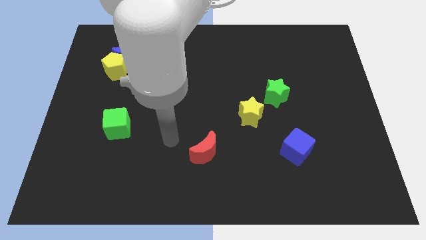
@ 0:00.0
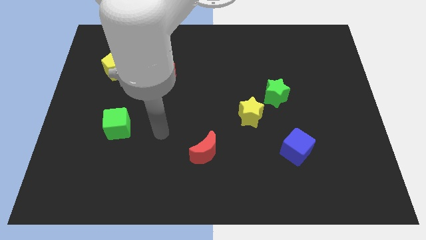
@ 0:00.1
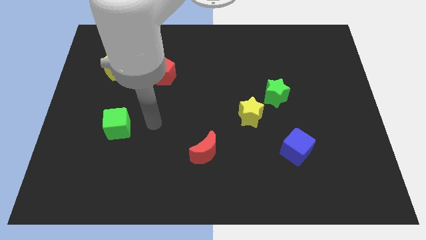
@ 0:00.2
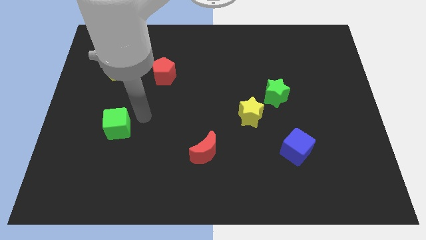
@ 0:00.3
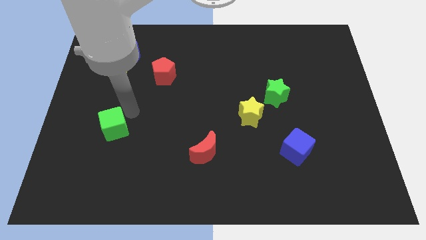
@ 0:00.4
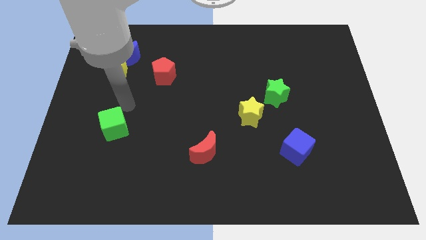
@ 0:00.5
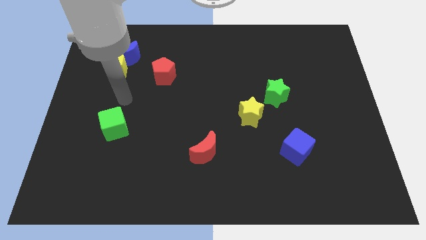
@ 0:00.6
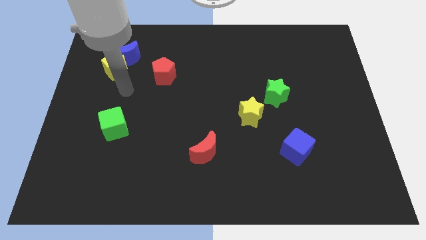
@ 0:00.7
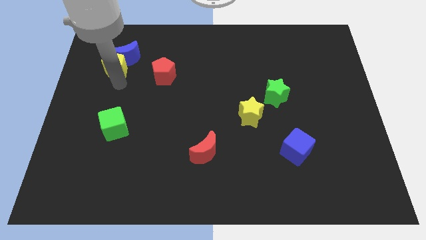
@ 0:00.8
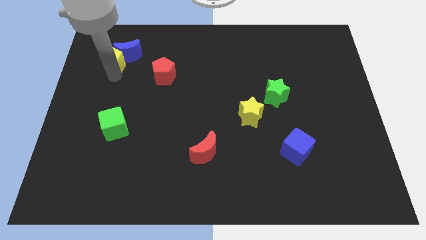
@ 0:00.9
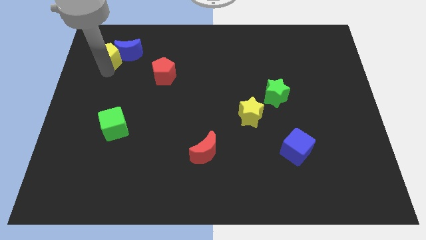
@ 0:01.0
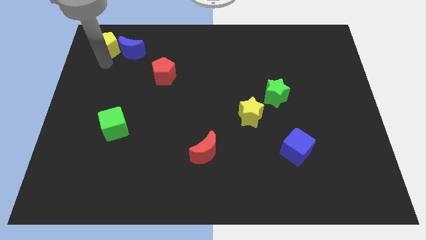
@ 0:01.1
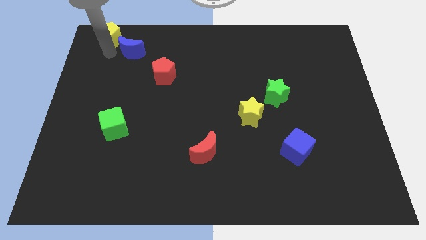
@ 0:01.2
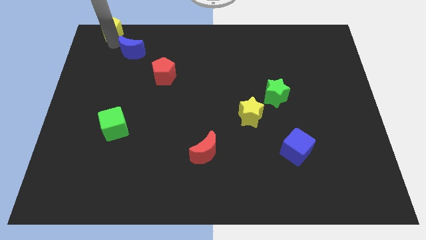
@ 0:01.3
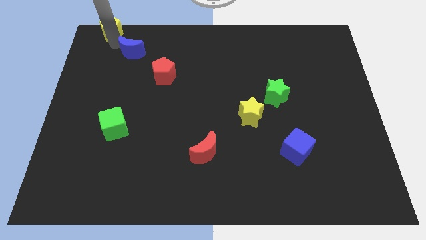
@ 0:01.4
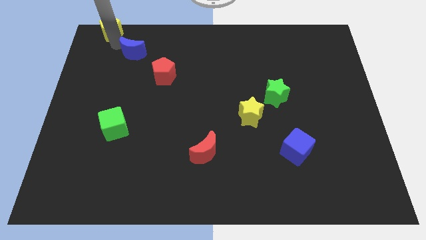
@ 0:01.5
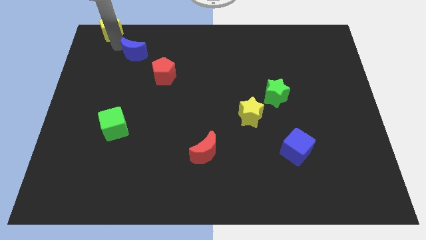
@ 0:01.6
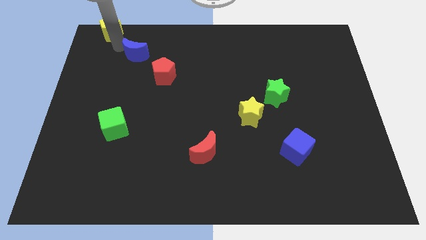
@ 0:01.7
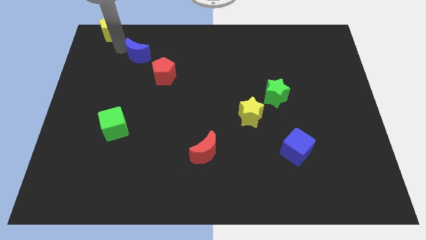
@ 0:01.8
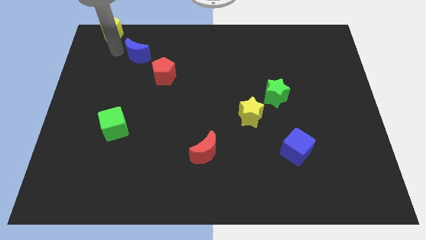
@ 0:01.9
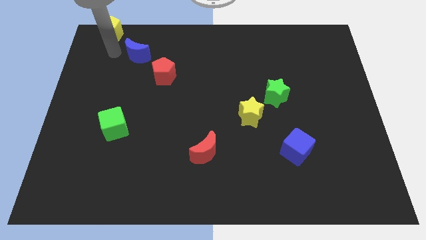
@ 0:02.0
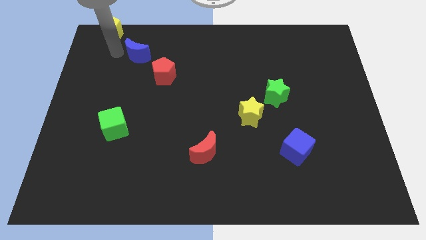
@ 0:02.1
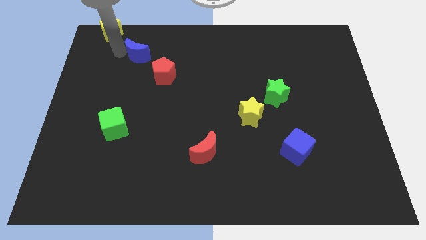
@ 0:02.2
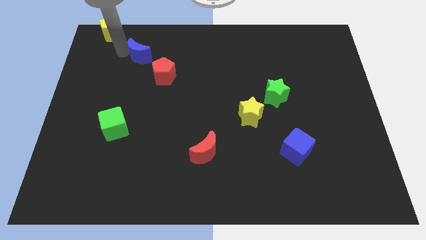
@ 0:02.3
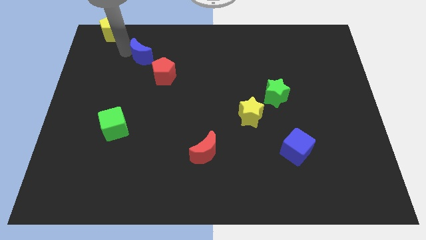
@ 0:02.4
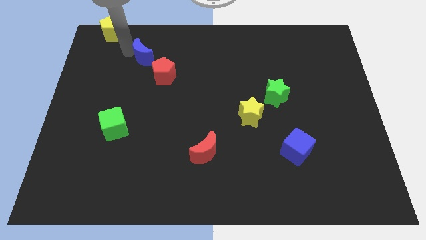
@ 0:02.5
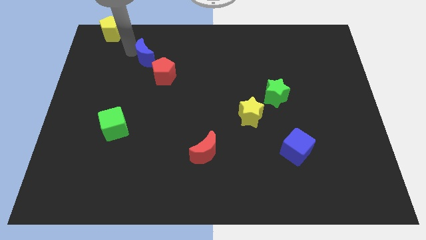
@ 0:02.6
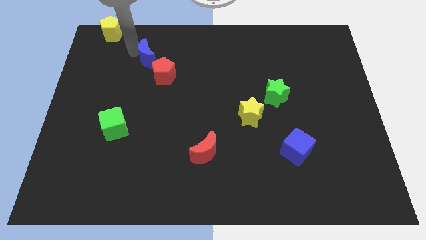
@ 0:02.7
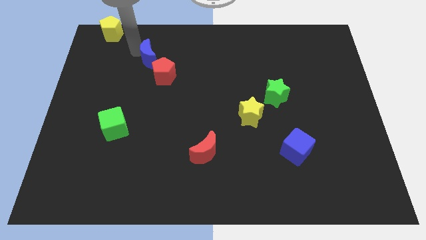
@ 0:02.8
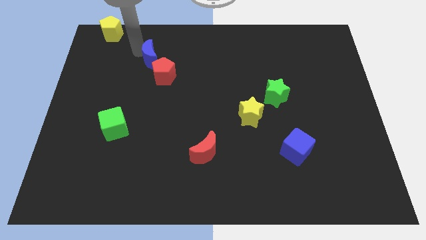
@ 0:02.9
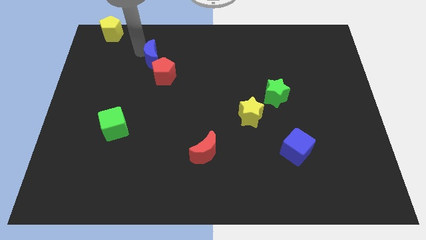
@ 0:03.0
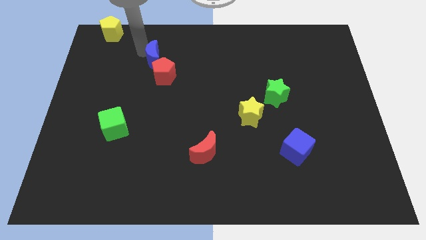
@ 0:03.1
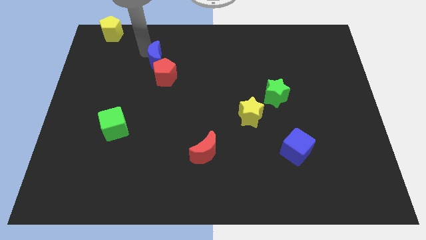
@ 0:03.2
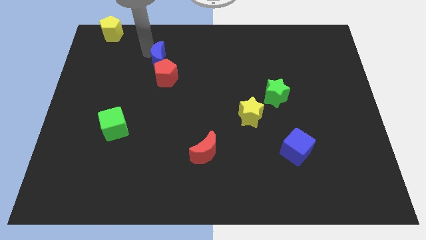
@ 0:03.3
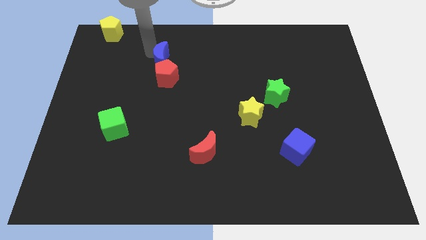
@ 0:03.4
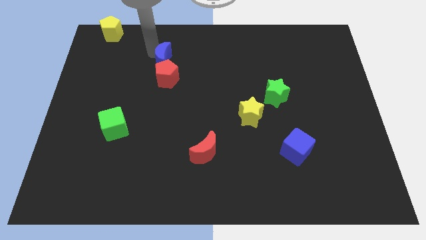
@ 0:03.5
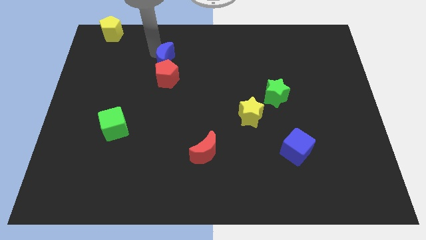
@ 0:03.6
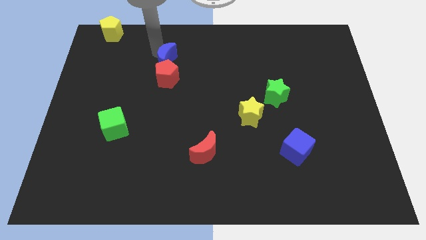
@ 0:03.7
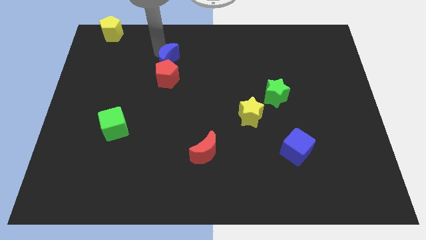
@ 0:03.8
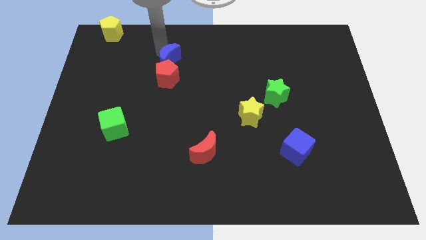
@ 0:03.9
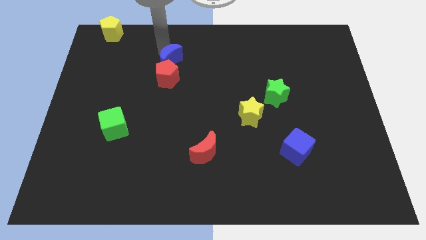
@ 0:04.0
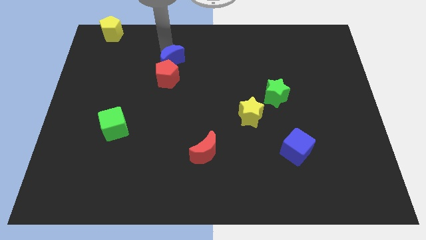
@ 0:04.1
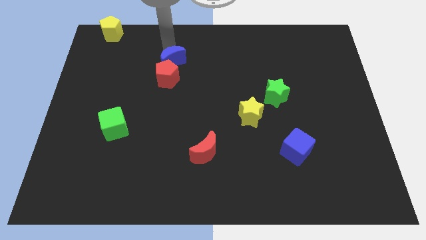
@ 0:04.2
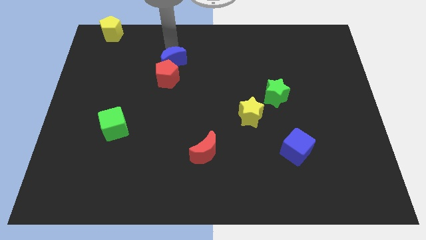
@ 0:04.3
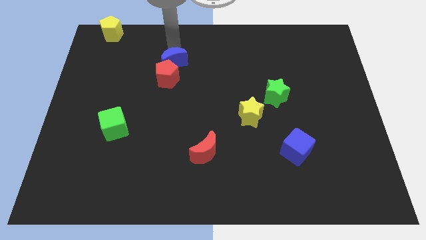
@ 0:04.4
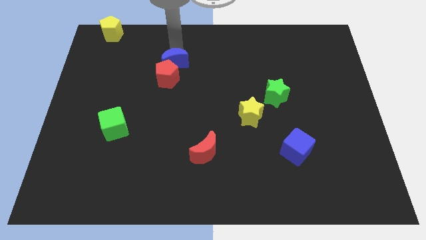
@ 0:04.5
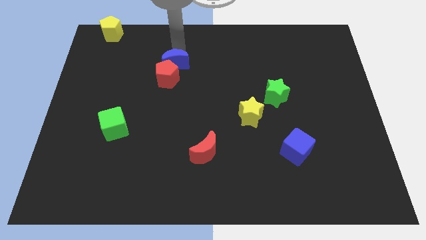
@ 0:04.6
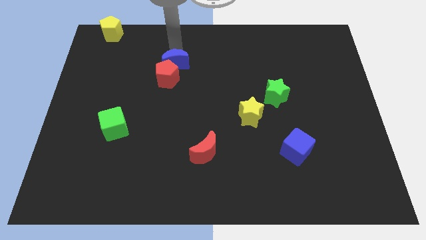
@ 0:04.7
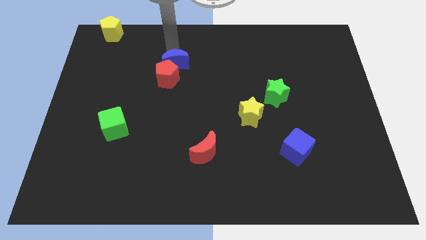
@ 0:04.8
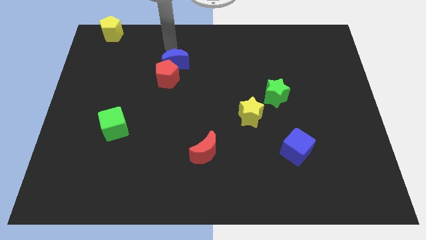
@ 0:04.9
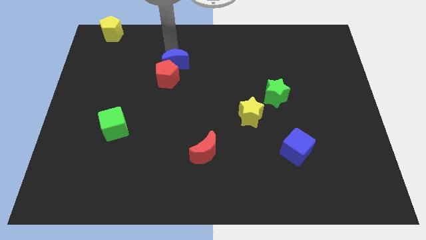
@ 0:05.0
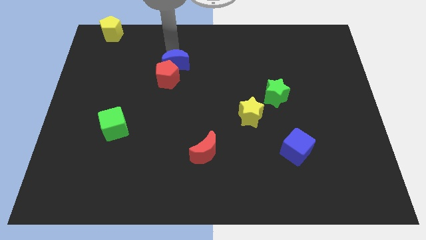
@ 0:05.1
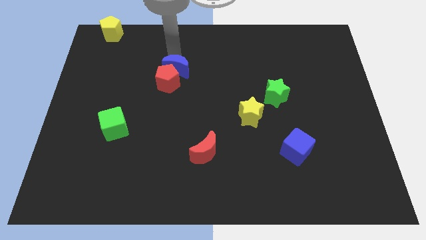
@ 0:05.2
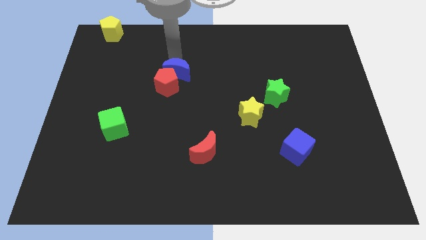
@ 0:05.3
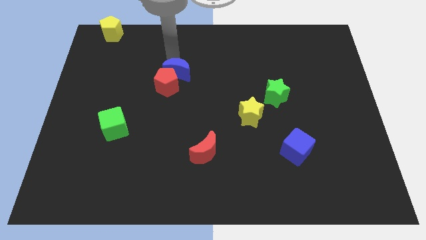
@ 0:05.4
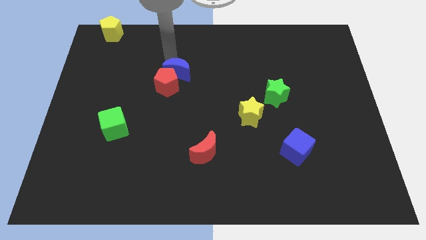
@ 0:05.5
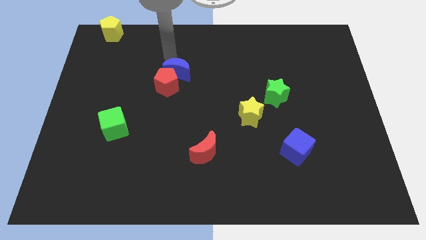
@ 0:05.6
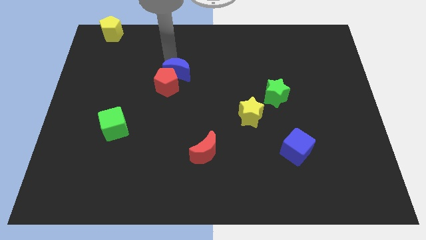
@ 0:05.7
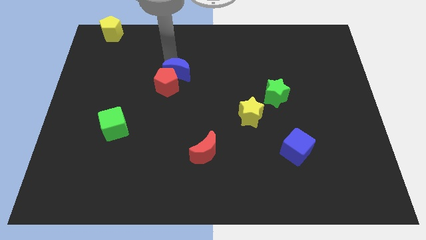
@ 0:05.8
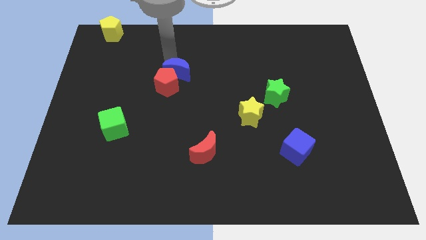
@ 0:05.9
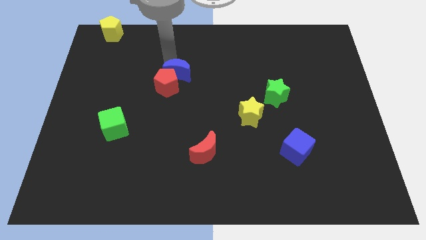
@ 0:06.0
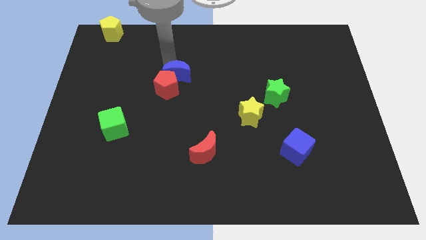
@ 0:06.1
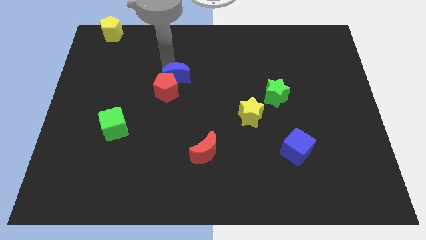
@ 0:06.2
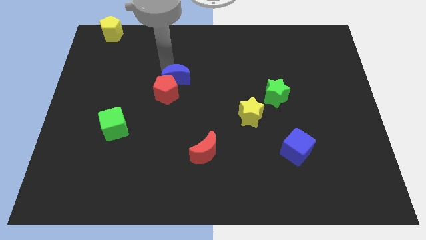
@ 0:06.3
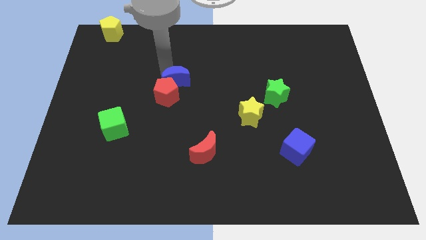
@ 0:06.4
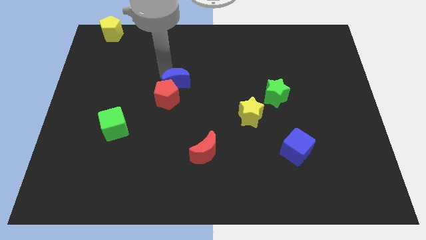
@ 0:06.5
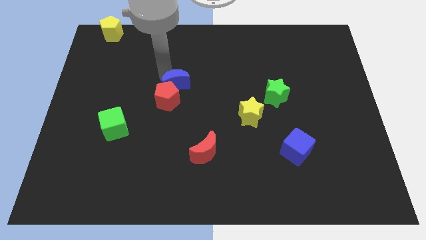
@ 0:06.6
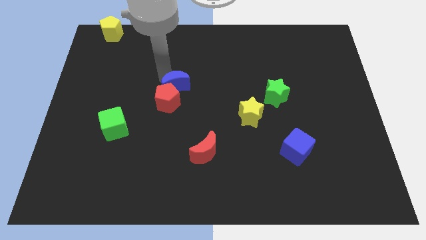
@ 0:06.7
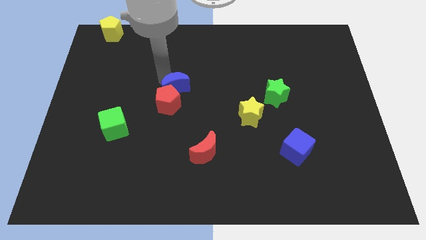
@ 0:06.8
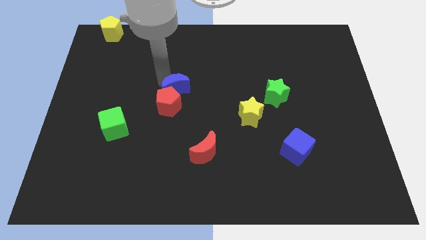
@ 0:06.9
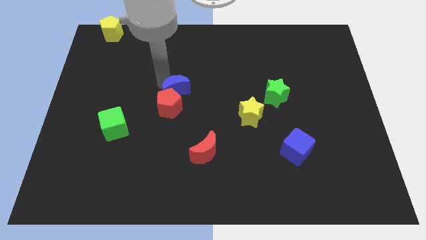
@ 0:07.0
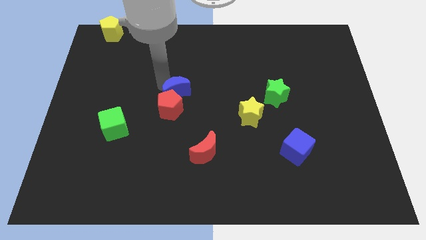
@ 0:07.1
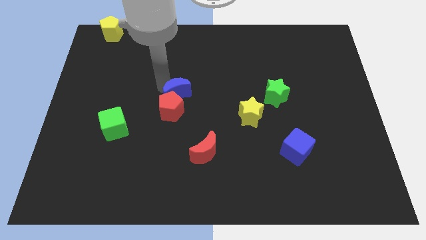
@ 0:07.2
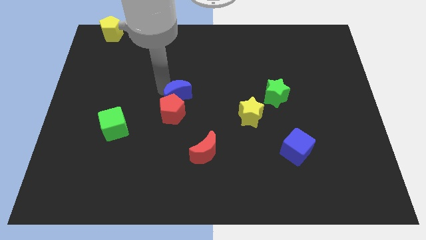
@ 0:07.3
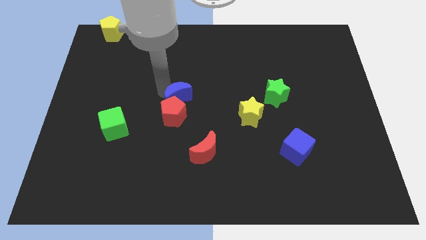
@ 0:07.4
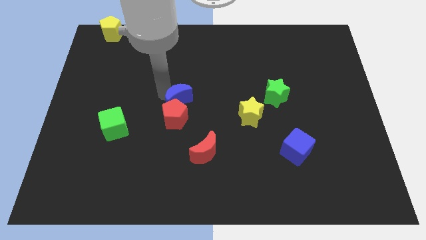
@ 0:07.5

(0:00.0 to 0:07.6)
push the blue moon downwards and right

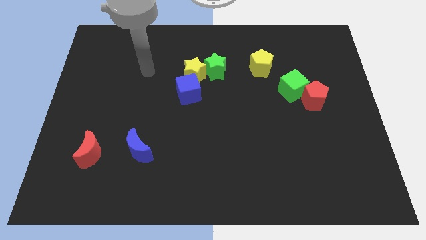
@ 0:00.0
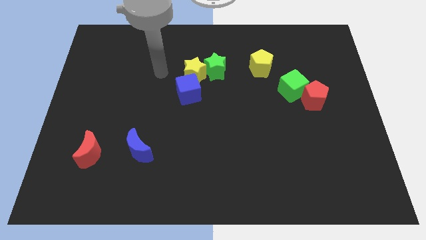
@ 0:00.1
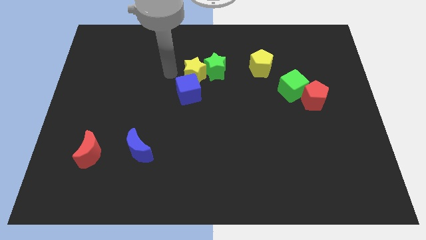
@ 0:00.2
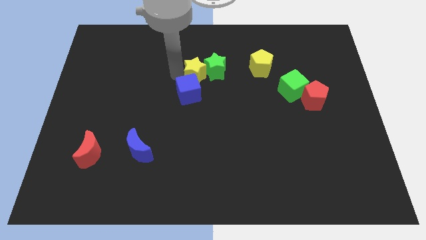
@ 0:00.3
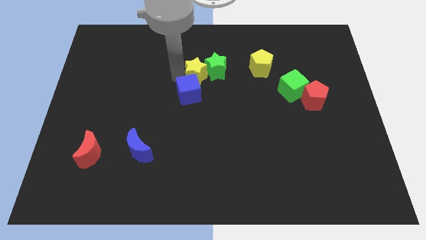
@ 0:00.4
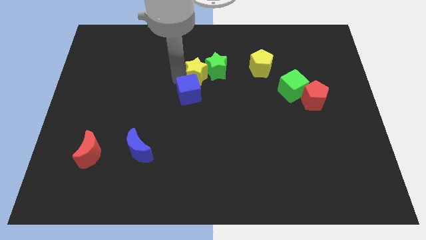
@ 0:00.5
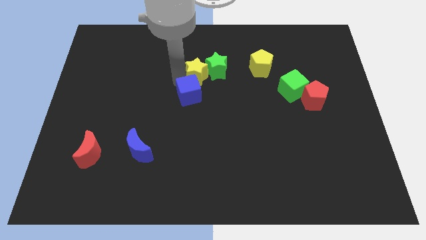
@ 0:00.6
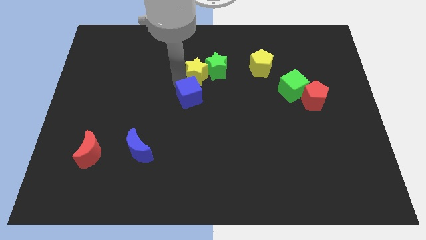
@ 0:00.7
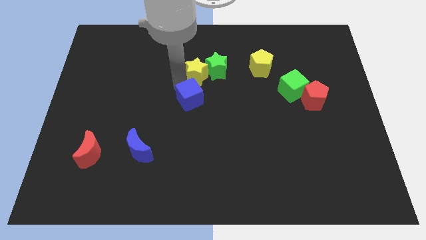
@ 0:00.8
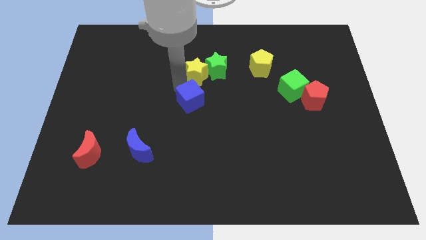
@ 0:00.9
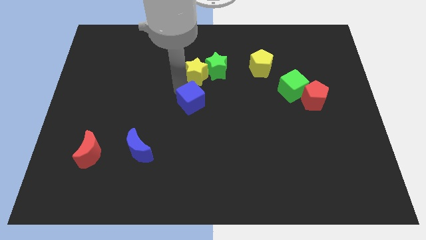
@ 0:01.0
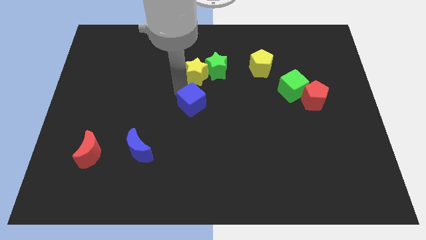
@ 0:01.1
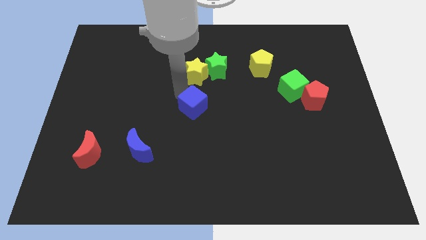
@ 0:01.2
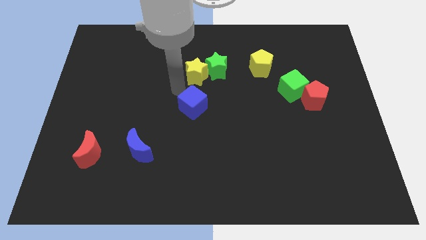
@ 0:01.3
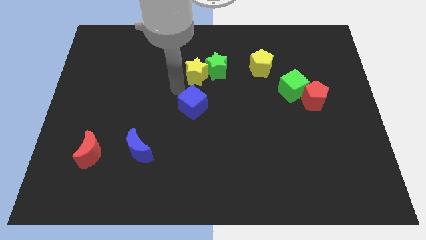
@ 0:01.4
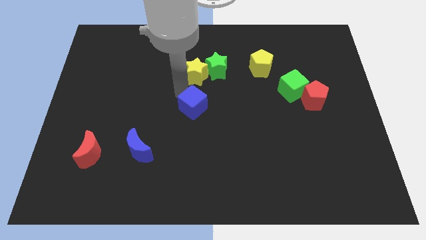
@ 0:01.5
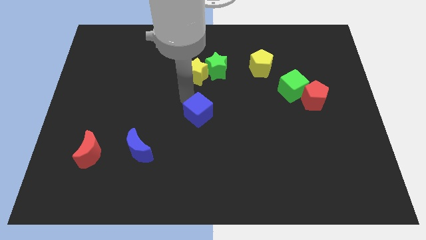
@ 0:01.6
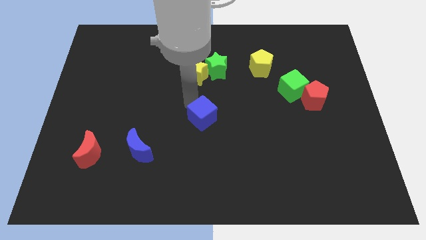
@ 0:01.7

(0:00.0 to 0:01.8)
move the blue cube slightly downwards and right diagonally
